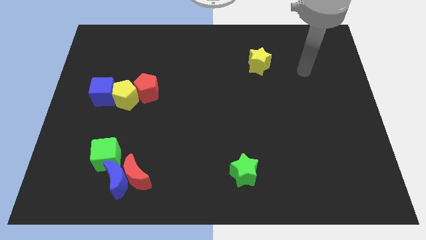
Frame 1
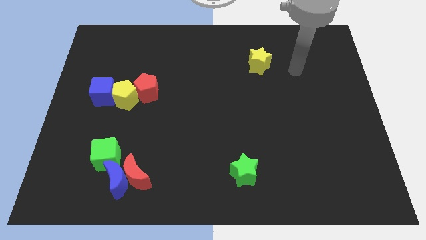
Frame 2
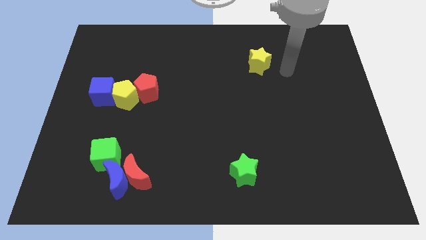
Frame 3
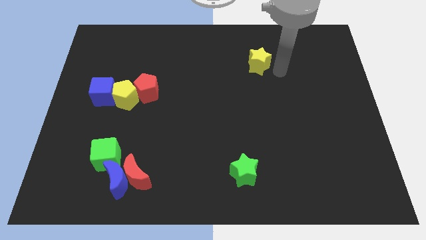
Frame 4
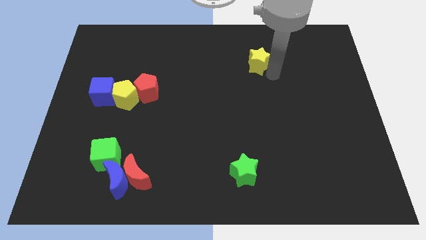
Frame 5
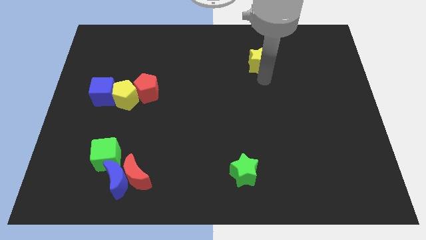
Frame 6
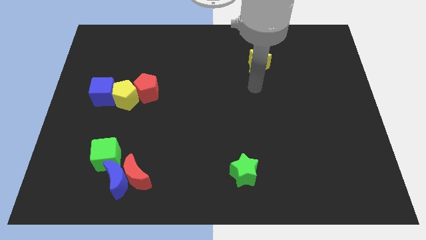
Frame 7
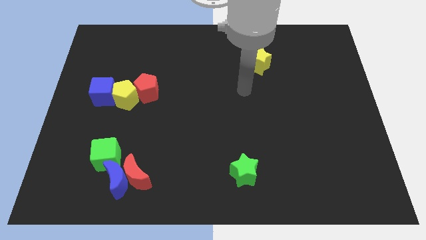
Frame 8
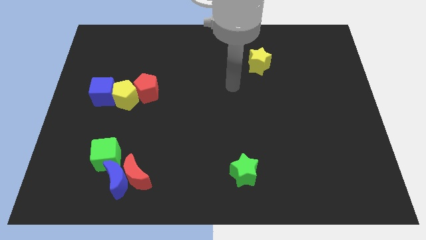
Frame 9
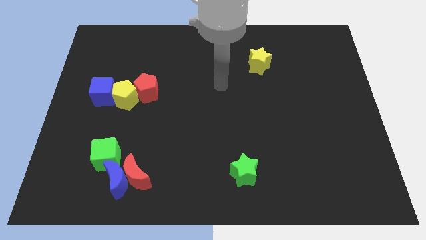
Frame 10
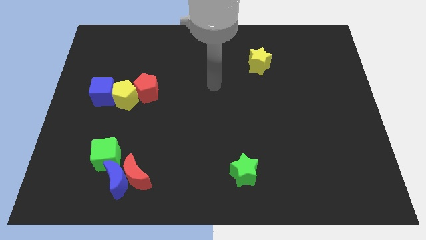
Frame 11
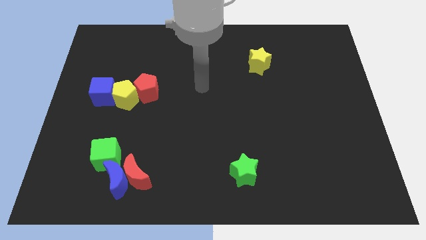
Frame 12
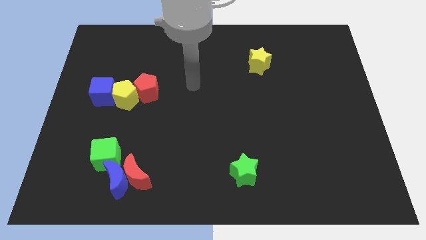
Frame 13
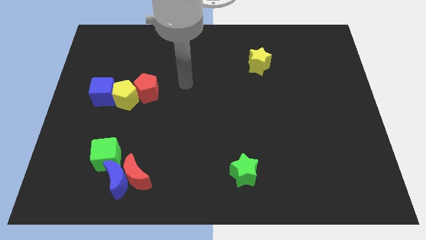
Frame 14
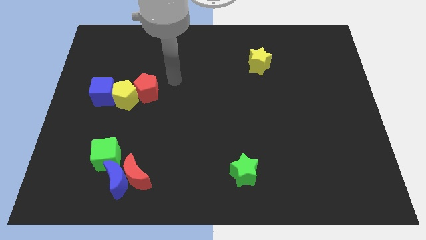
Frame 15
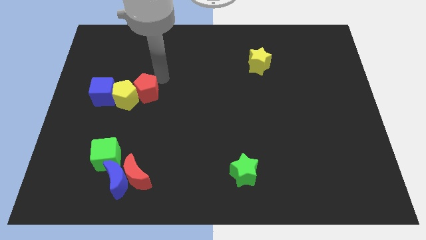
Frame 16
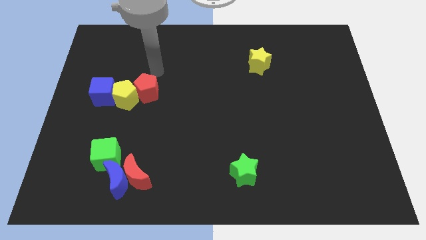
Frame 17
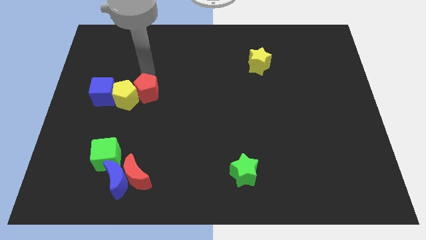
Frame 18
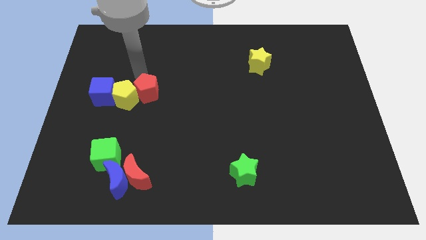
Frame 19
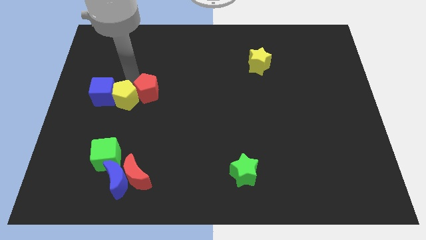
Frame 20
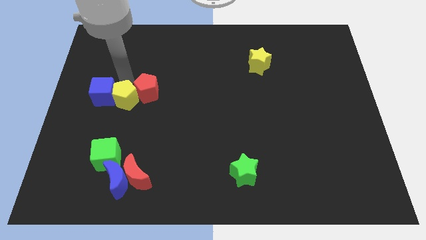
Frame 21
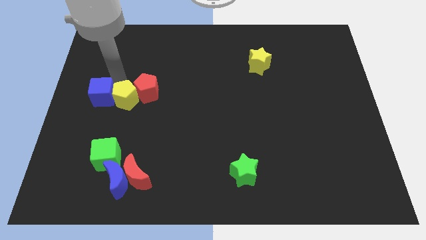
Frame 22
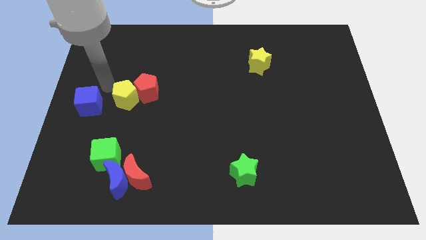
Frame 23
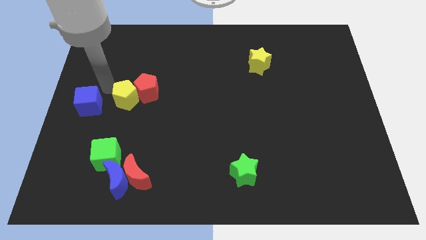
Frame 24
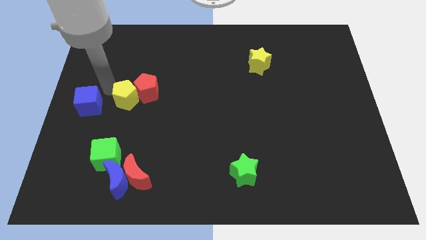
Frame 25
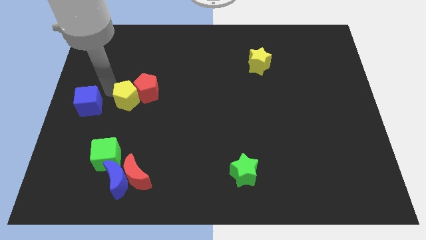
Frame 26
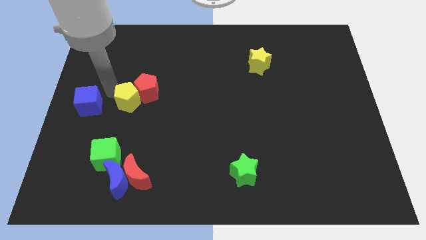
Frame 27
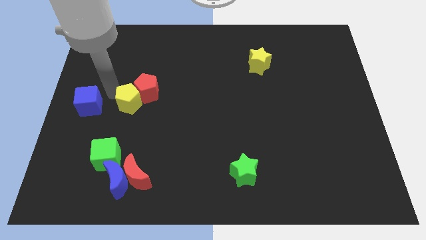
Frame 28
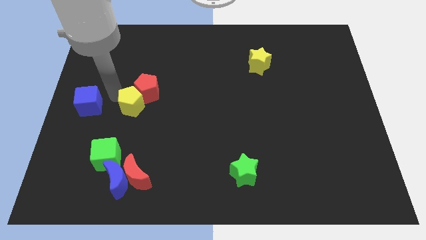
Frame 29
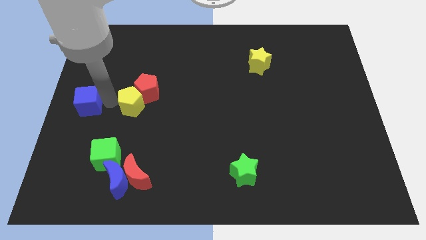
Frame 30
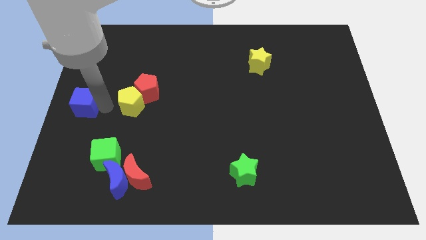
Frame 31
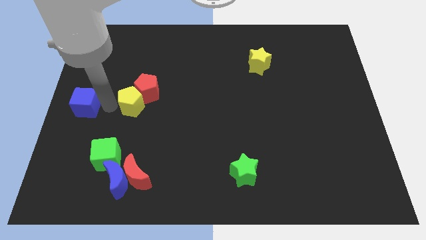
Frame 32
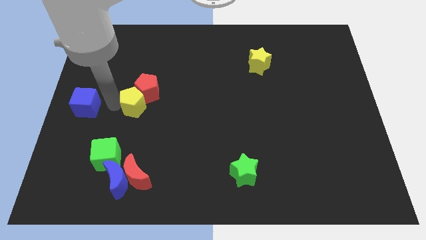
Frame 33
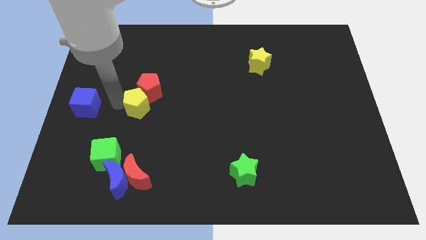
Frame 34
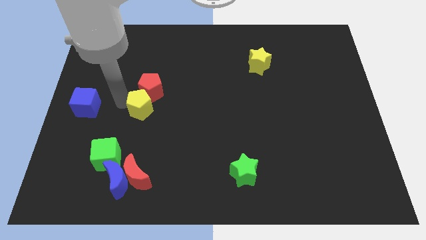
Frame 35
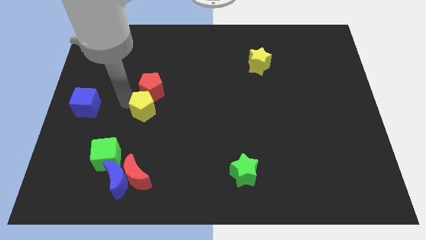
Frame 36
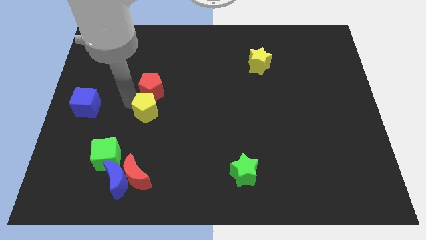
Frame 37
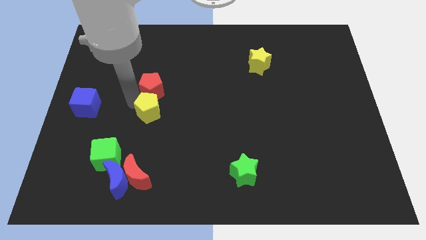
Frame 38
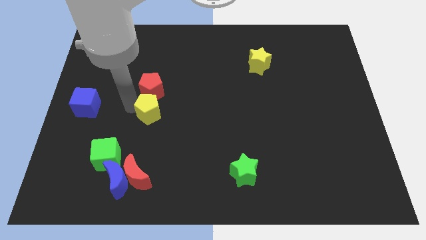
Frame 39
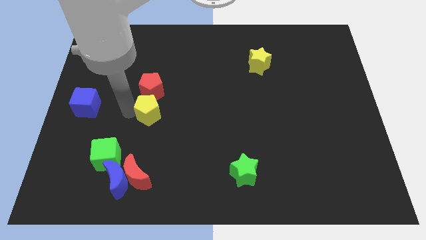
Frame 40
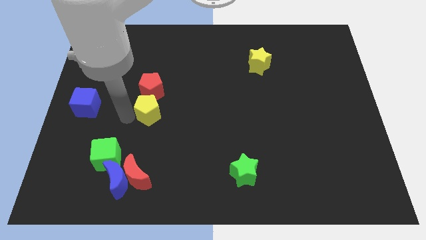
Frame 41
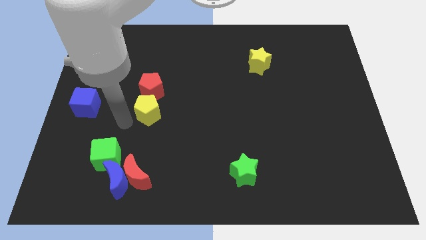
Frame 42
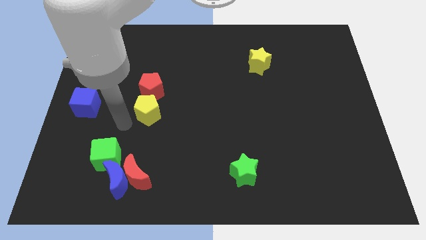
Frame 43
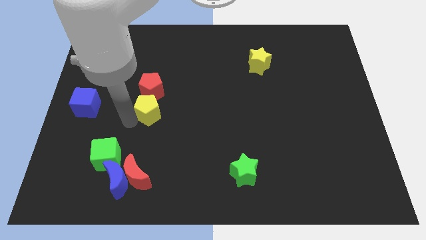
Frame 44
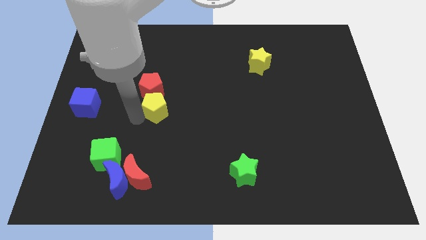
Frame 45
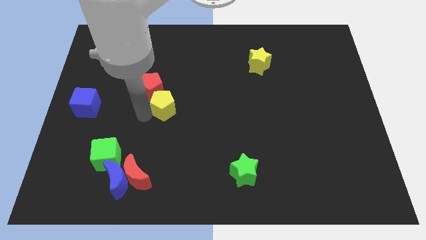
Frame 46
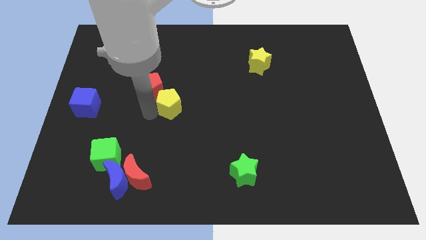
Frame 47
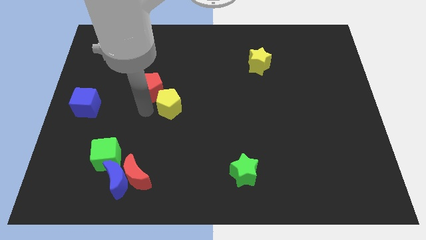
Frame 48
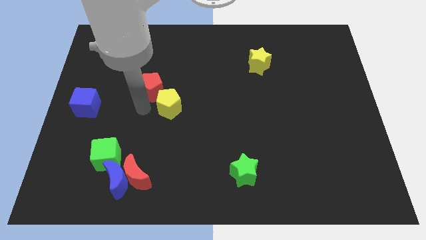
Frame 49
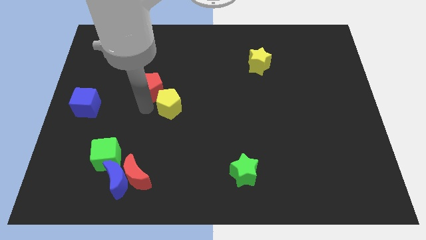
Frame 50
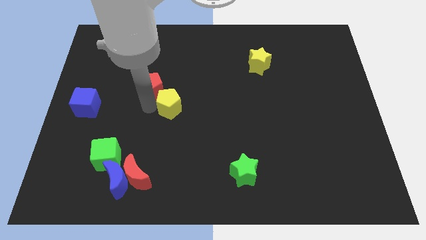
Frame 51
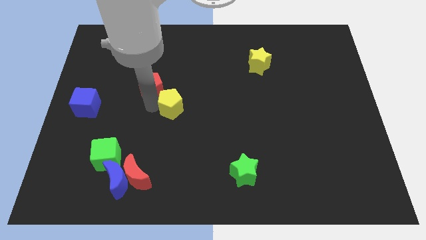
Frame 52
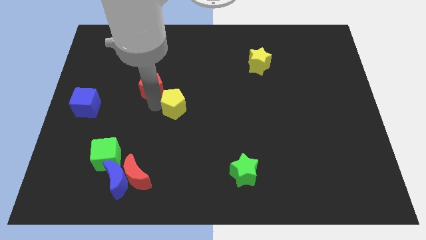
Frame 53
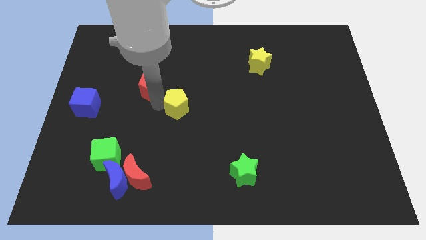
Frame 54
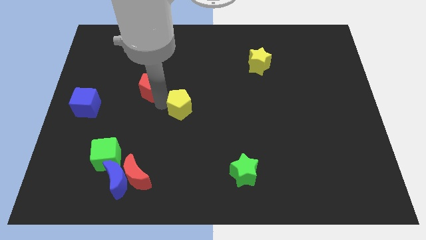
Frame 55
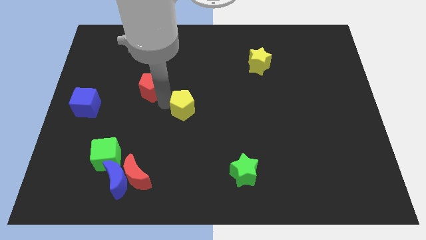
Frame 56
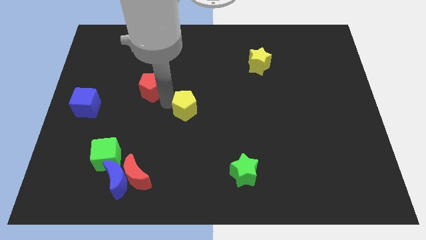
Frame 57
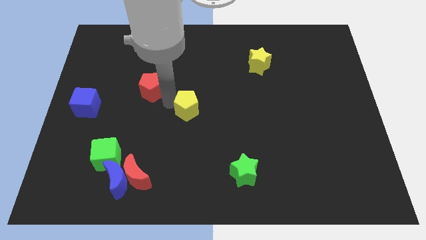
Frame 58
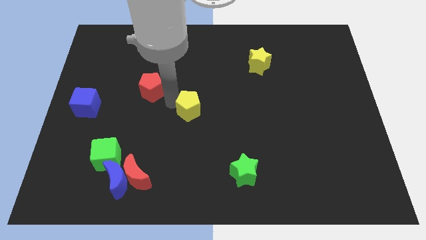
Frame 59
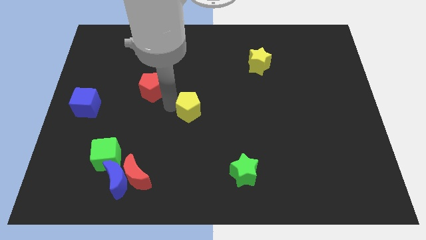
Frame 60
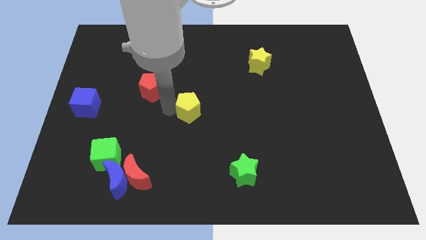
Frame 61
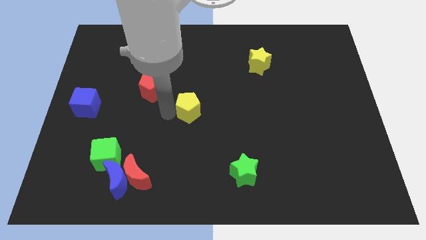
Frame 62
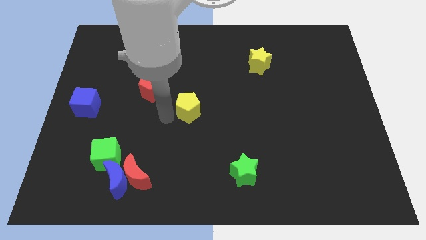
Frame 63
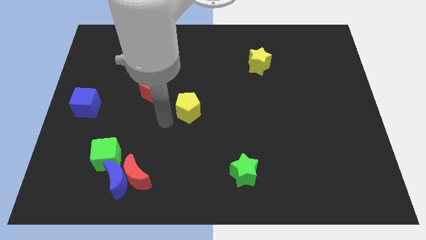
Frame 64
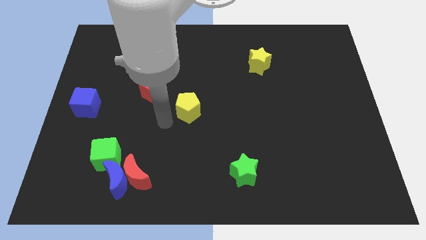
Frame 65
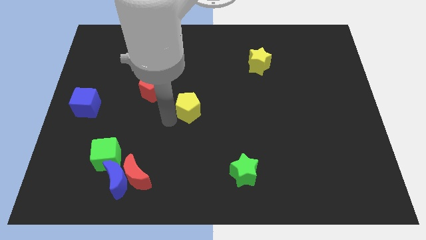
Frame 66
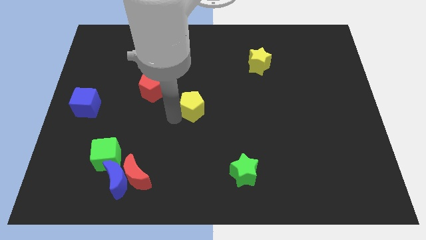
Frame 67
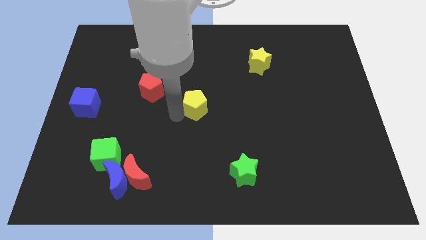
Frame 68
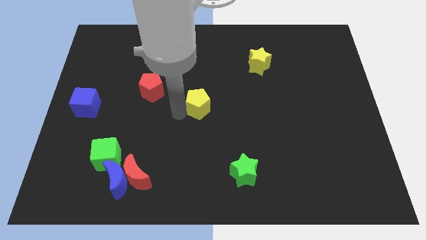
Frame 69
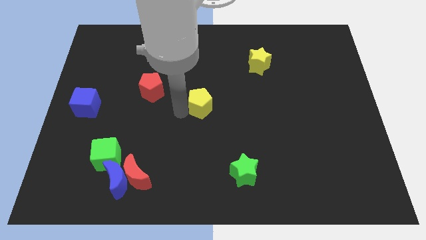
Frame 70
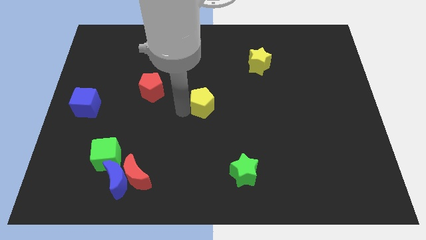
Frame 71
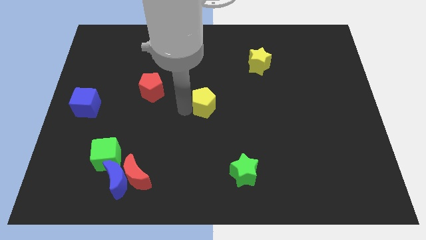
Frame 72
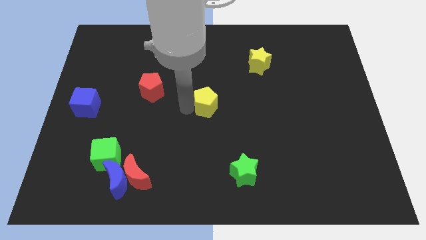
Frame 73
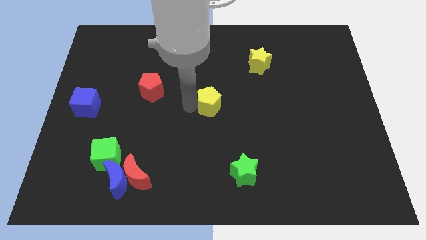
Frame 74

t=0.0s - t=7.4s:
move the yellow pentagon right

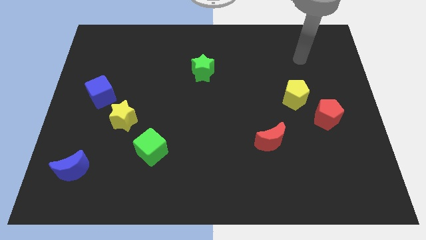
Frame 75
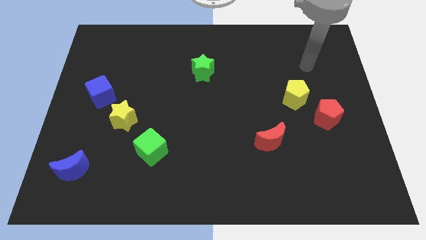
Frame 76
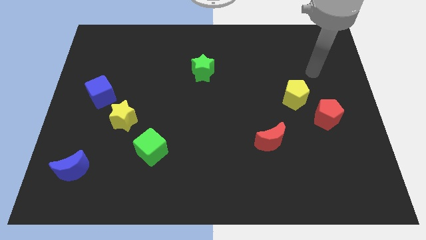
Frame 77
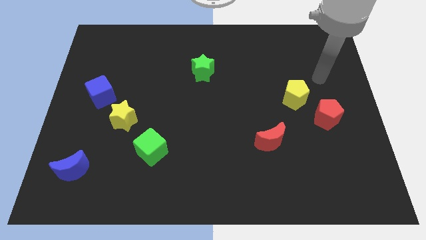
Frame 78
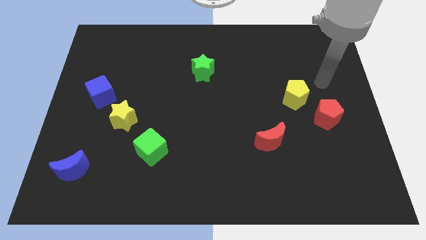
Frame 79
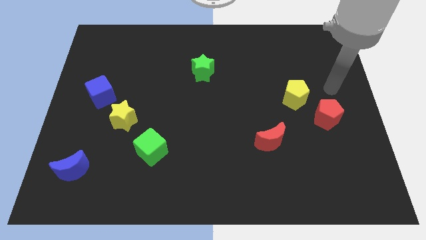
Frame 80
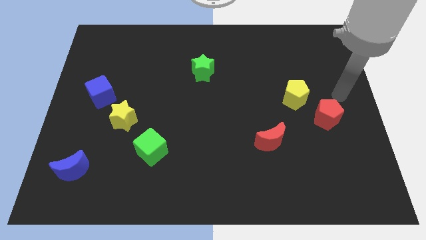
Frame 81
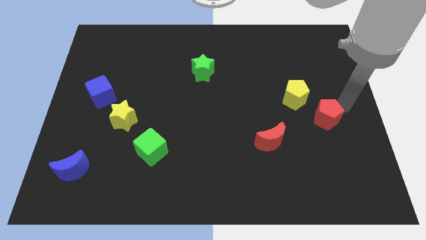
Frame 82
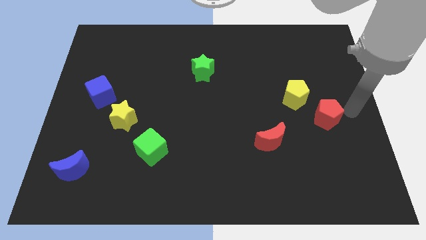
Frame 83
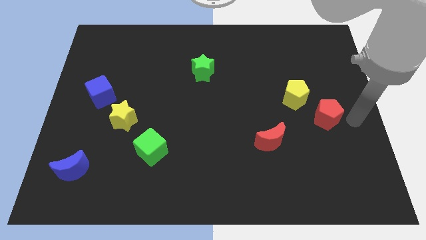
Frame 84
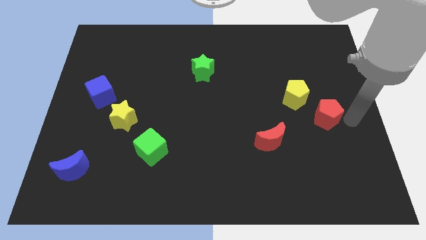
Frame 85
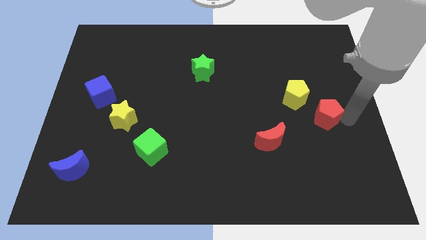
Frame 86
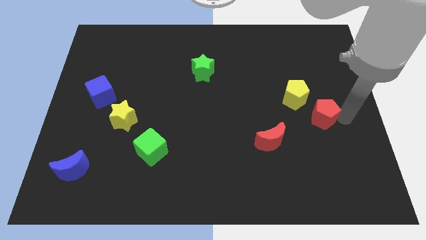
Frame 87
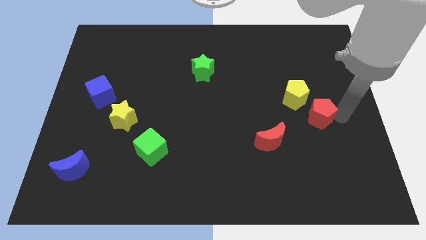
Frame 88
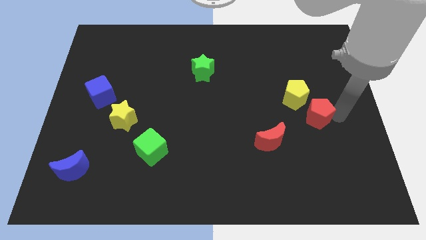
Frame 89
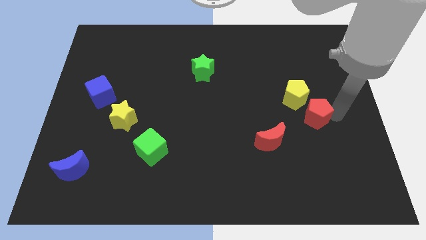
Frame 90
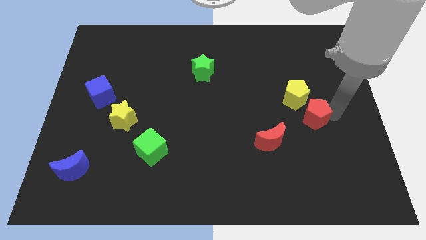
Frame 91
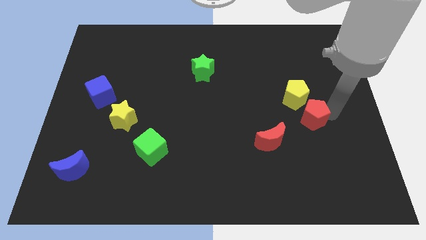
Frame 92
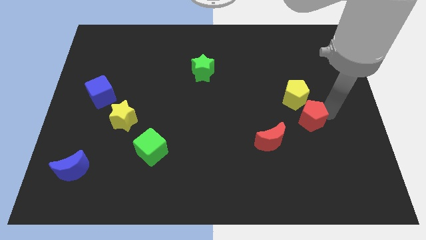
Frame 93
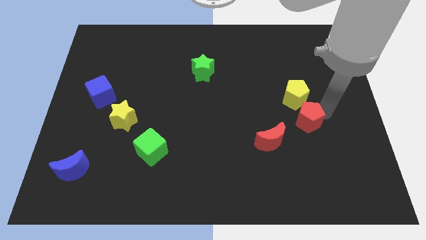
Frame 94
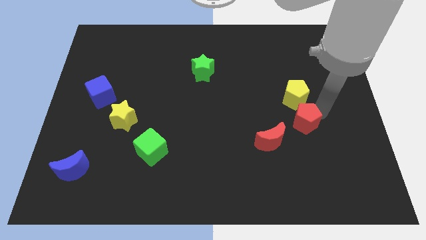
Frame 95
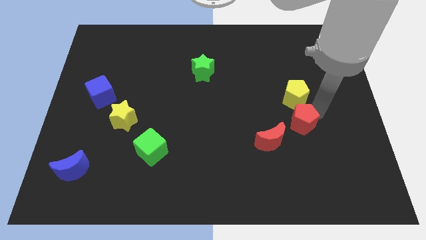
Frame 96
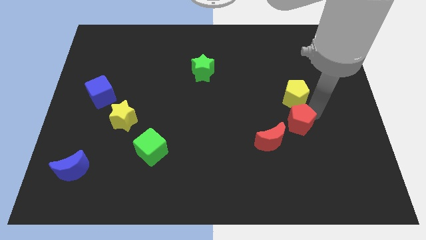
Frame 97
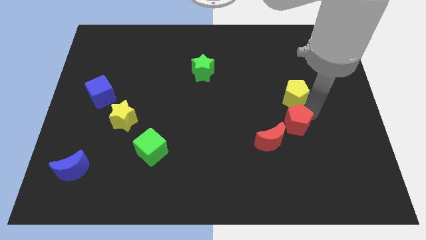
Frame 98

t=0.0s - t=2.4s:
slightly push the red pentagon left
